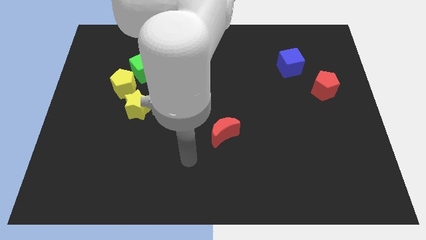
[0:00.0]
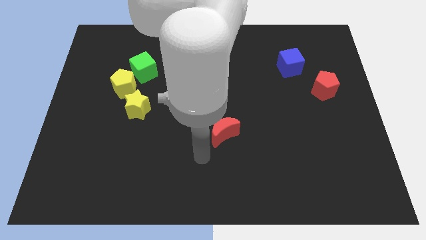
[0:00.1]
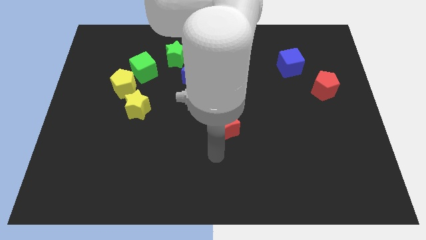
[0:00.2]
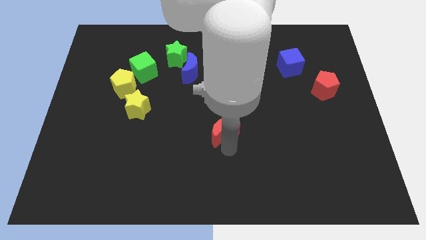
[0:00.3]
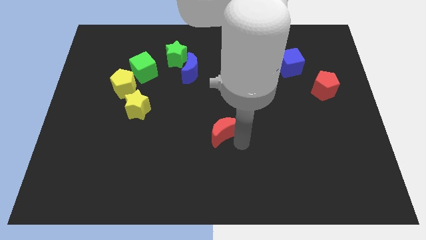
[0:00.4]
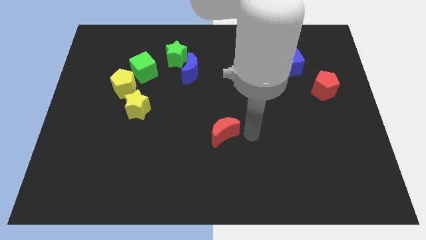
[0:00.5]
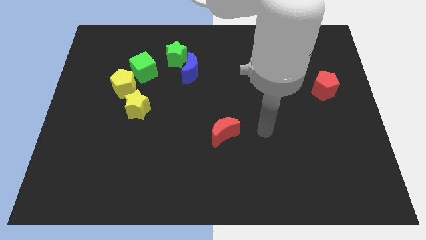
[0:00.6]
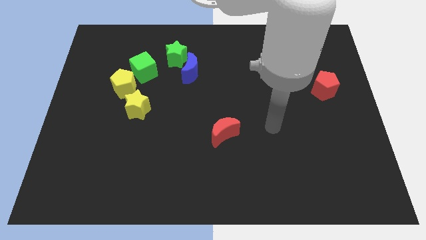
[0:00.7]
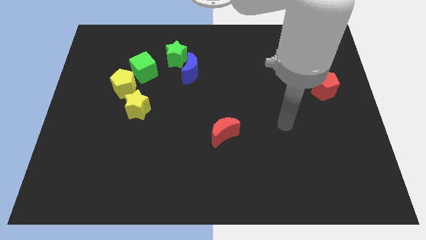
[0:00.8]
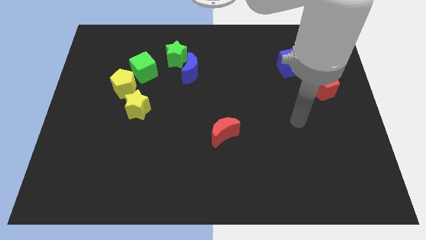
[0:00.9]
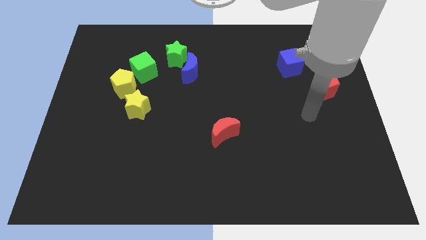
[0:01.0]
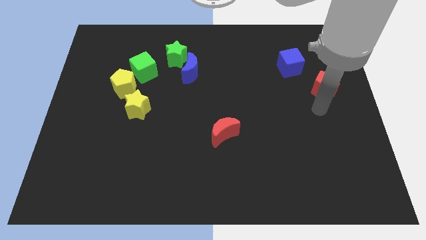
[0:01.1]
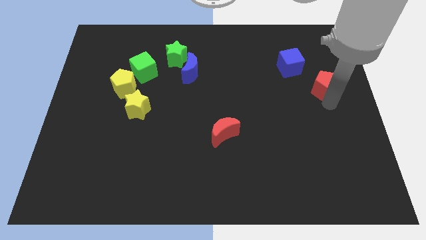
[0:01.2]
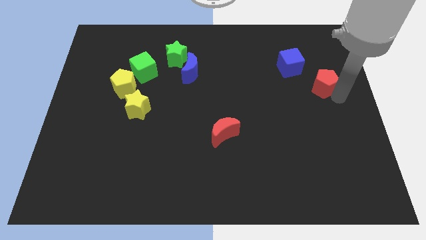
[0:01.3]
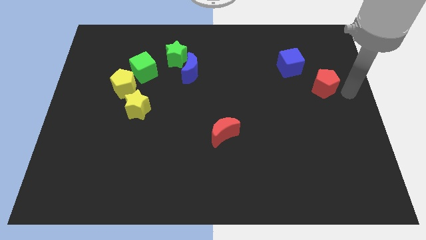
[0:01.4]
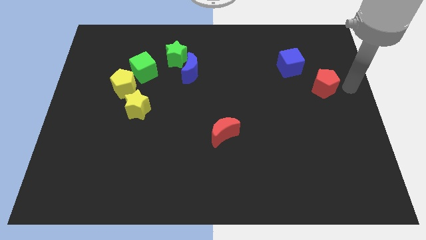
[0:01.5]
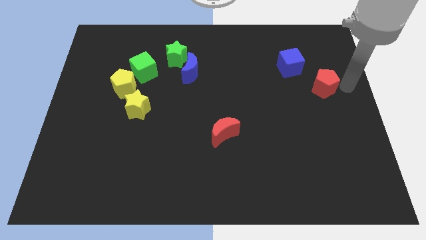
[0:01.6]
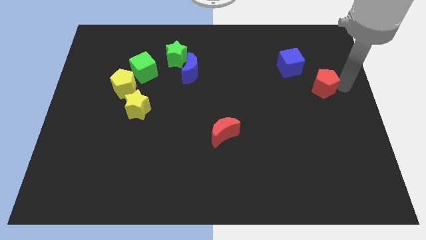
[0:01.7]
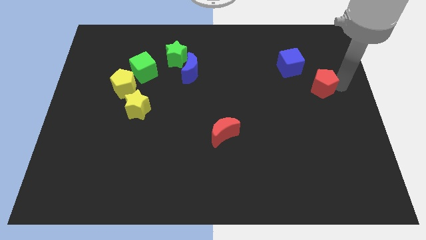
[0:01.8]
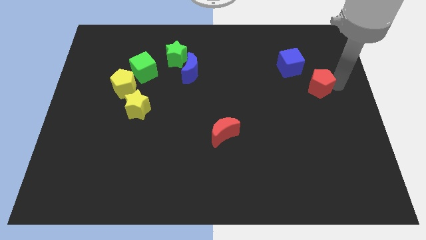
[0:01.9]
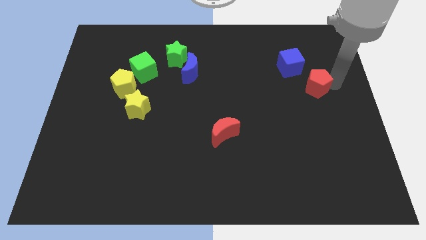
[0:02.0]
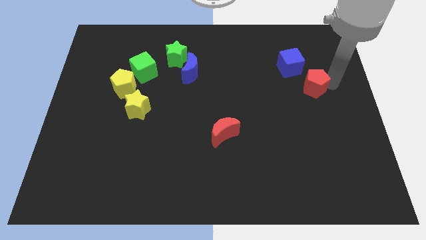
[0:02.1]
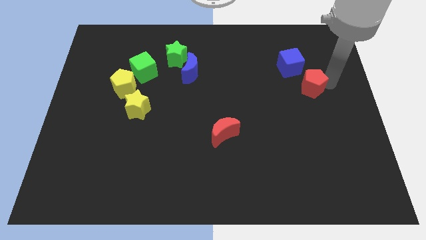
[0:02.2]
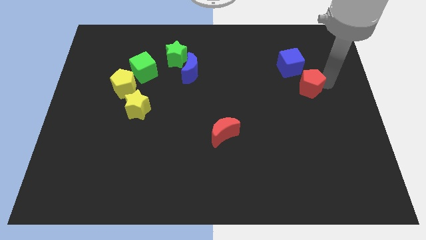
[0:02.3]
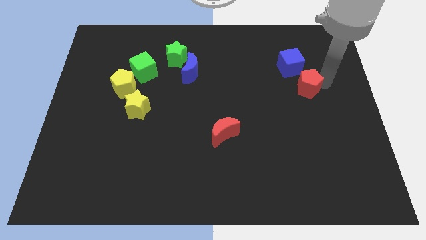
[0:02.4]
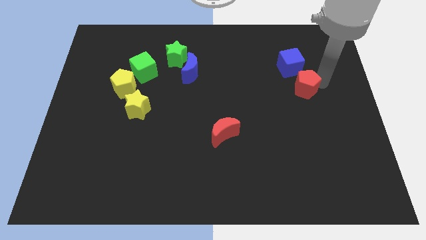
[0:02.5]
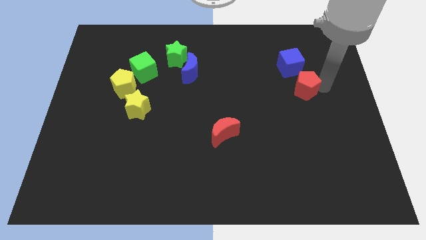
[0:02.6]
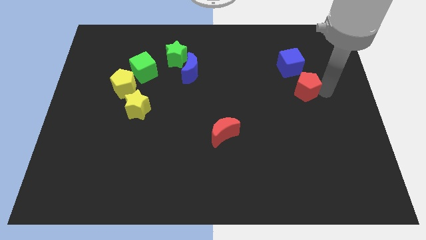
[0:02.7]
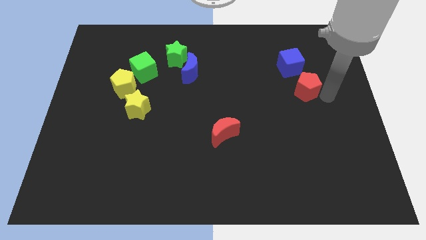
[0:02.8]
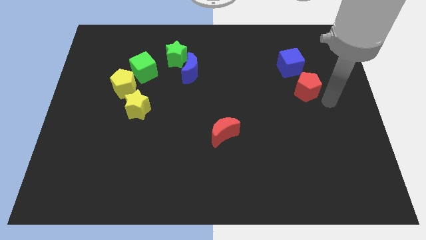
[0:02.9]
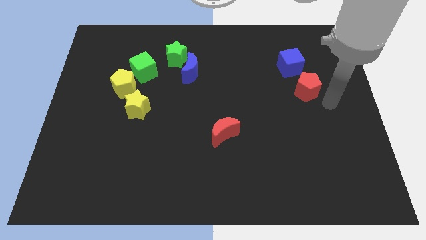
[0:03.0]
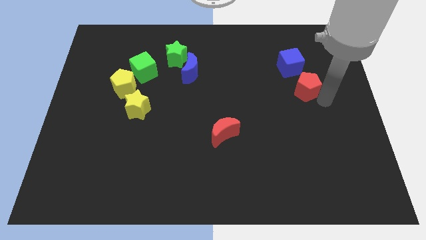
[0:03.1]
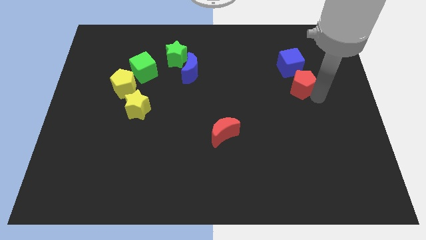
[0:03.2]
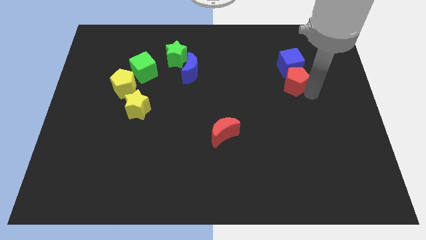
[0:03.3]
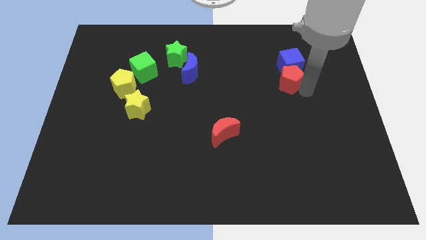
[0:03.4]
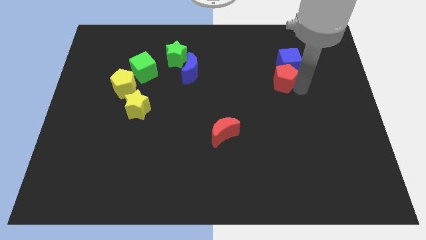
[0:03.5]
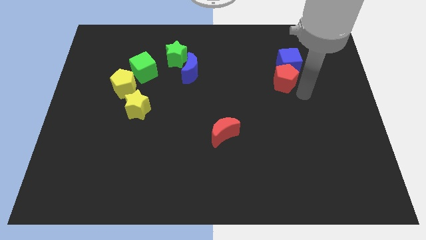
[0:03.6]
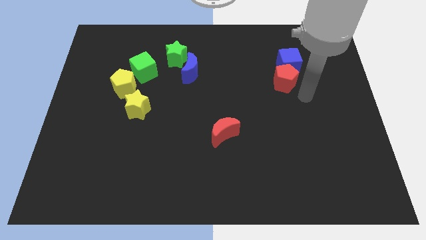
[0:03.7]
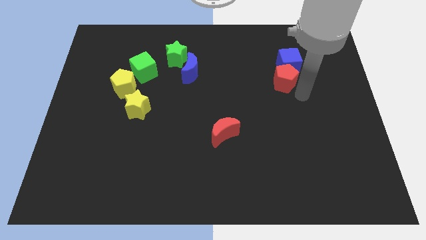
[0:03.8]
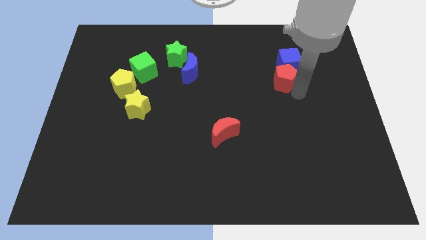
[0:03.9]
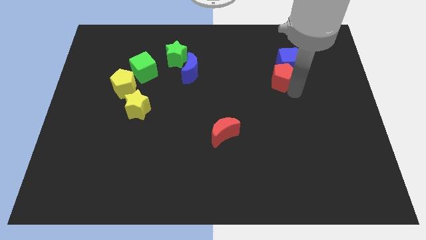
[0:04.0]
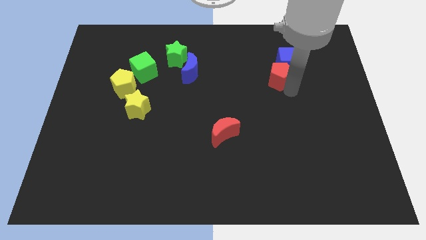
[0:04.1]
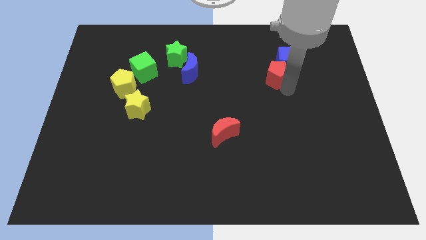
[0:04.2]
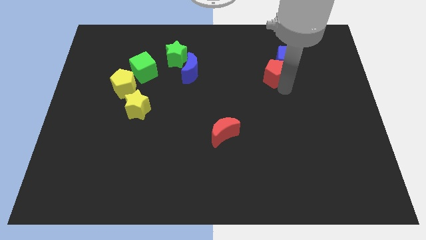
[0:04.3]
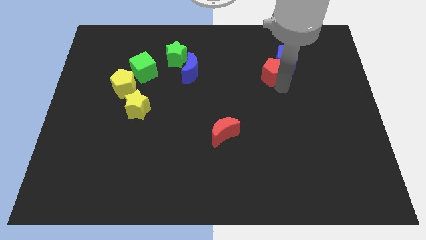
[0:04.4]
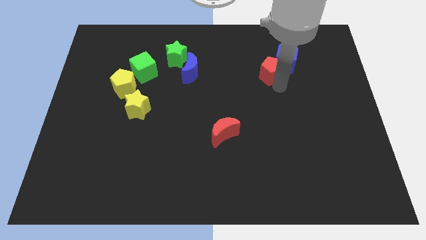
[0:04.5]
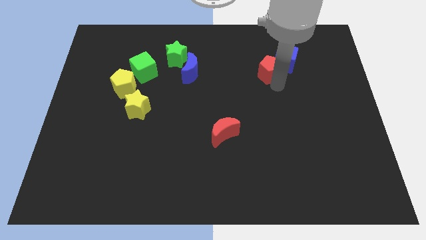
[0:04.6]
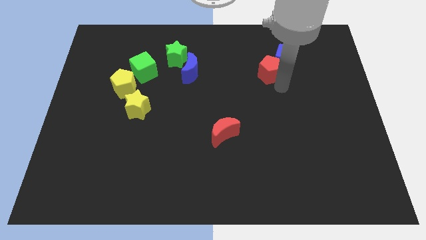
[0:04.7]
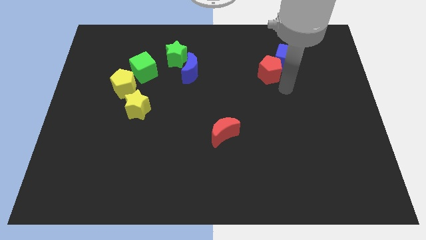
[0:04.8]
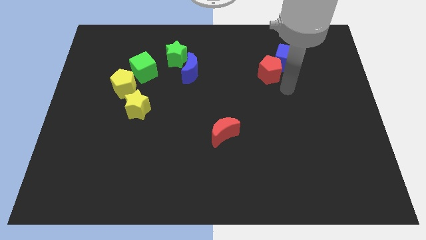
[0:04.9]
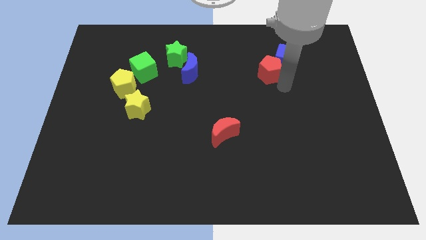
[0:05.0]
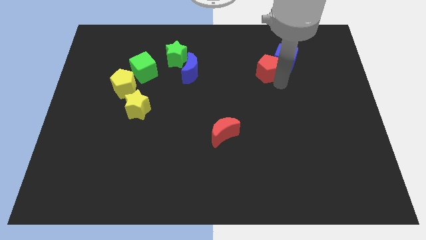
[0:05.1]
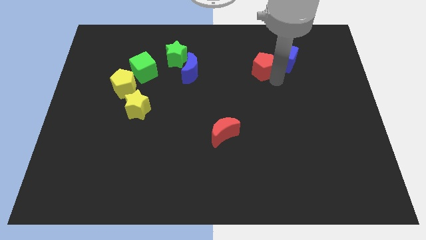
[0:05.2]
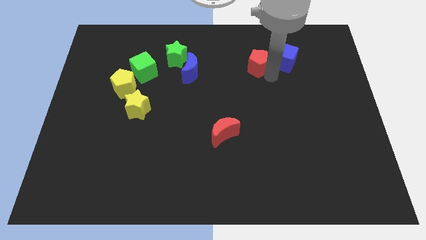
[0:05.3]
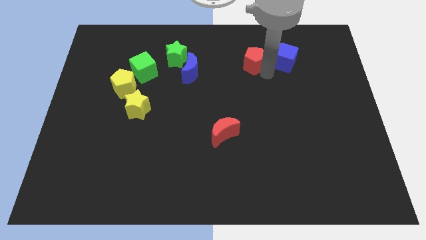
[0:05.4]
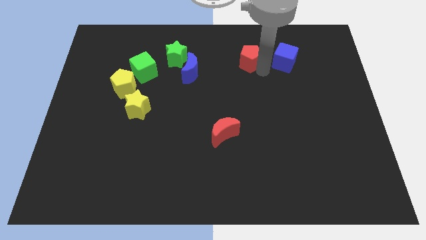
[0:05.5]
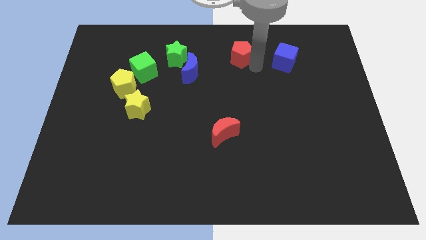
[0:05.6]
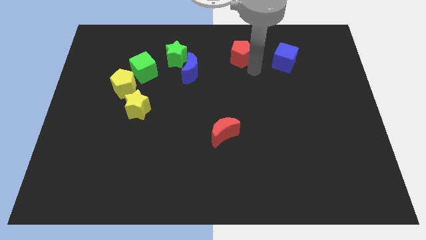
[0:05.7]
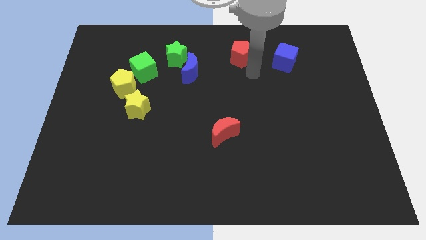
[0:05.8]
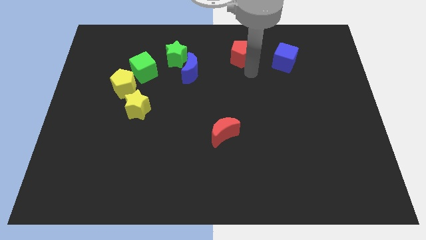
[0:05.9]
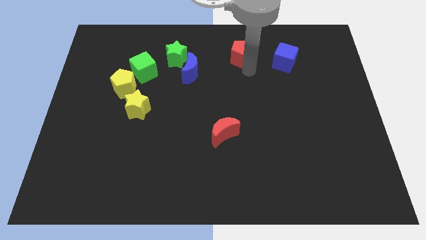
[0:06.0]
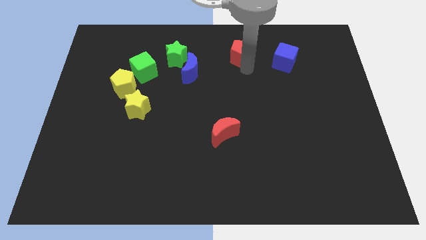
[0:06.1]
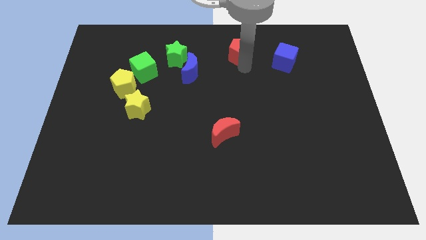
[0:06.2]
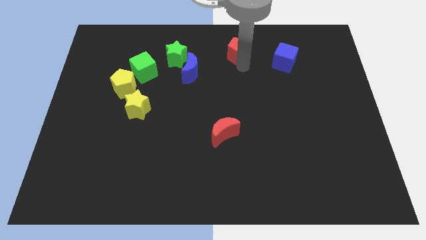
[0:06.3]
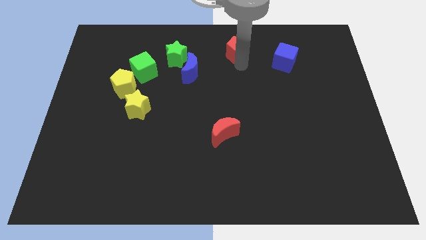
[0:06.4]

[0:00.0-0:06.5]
slide the red pentagon to the top
